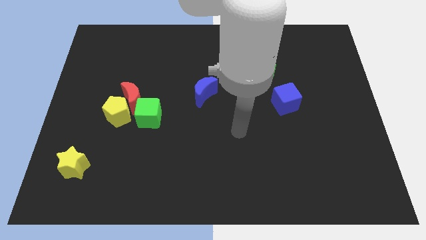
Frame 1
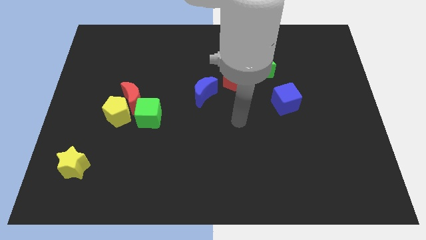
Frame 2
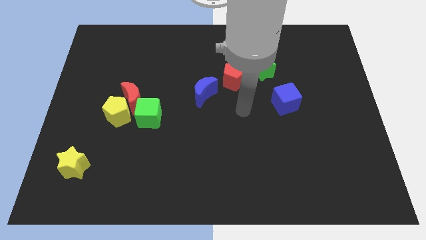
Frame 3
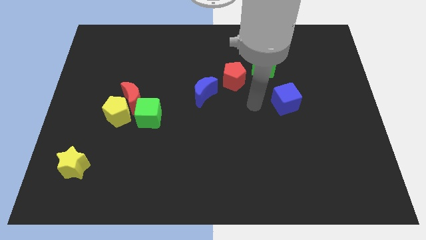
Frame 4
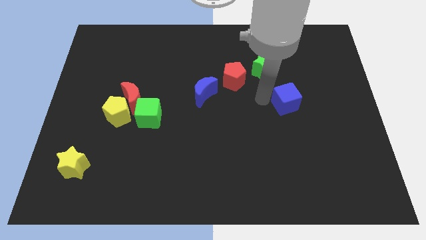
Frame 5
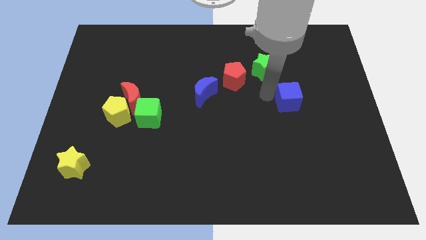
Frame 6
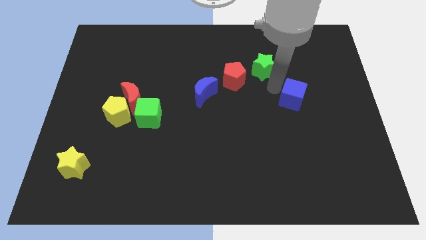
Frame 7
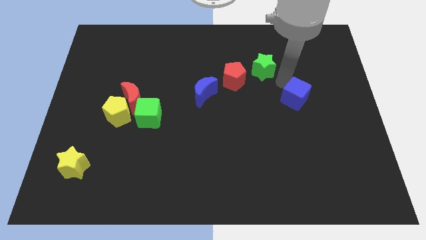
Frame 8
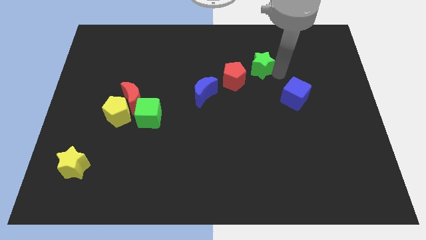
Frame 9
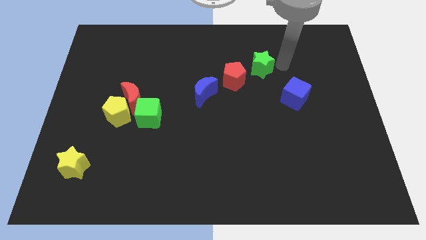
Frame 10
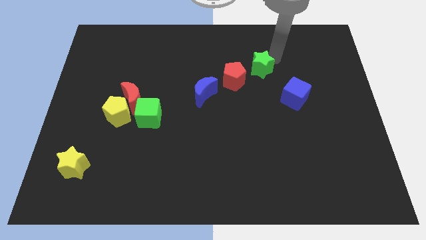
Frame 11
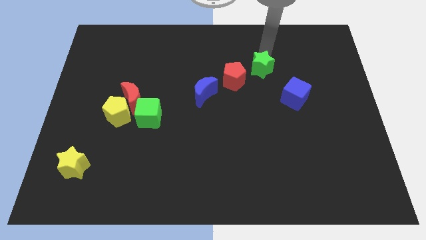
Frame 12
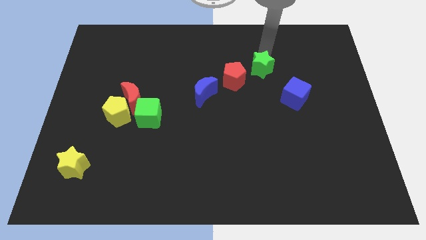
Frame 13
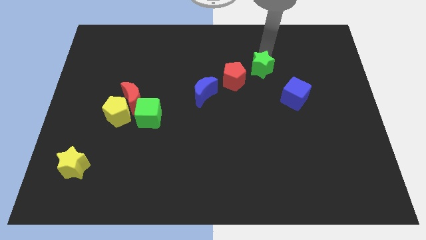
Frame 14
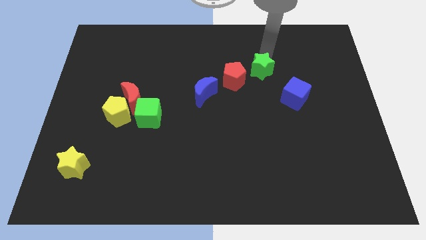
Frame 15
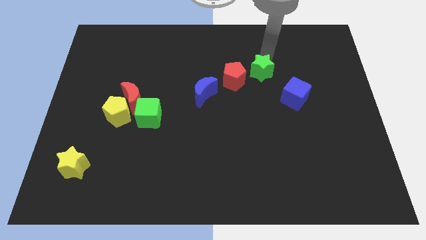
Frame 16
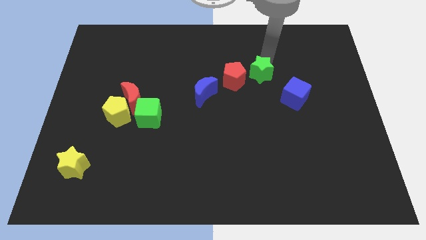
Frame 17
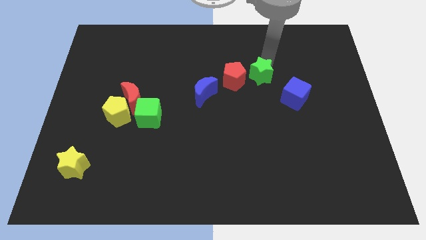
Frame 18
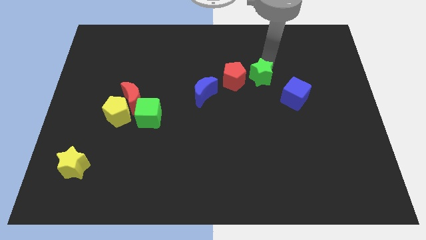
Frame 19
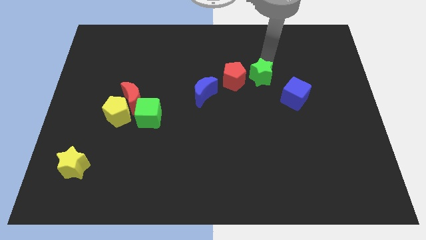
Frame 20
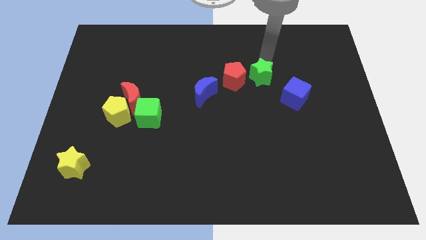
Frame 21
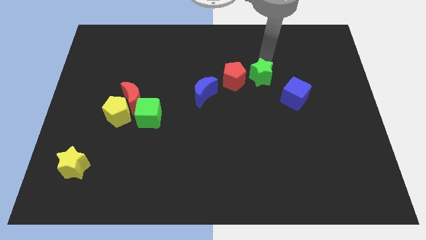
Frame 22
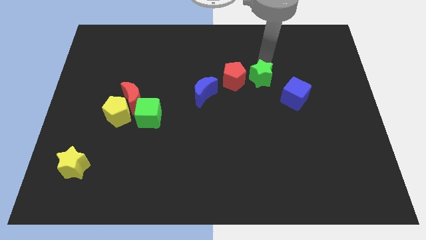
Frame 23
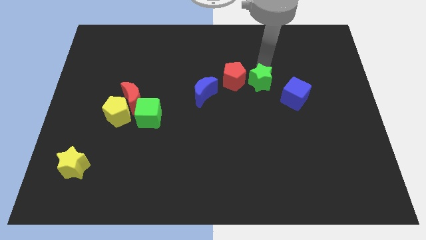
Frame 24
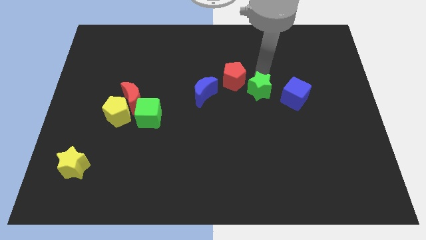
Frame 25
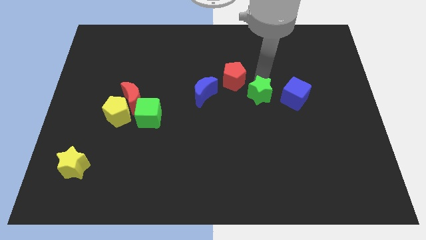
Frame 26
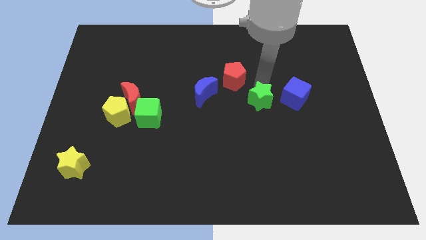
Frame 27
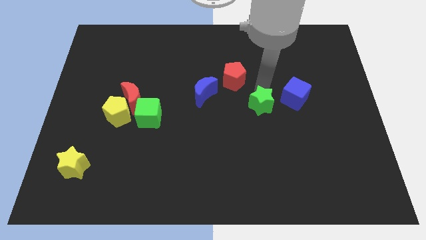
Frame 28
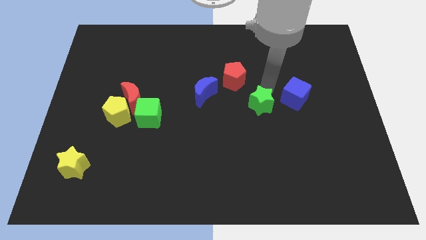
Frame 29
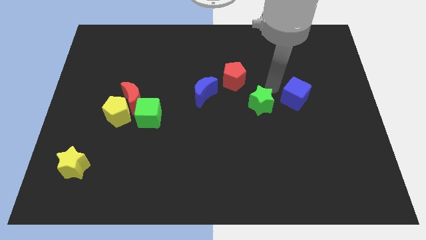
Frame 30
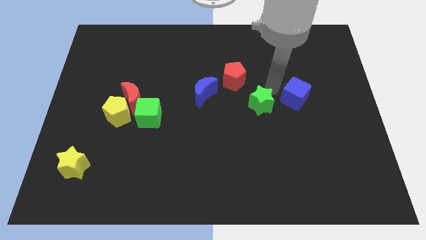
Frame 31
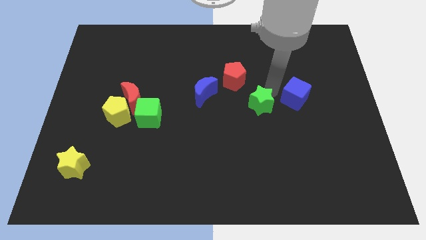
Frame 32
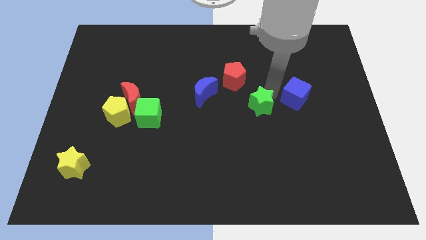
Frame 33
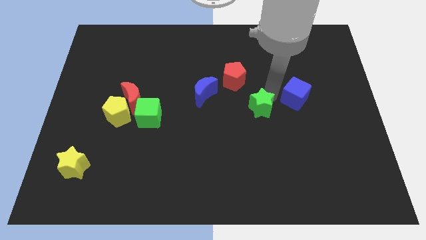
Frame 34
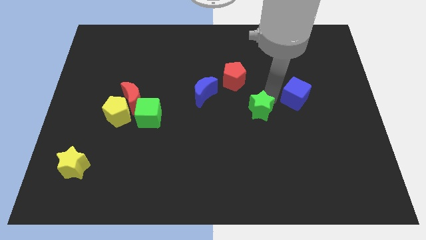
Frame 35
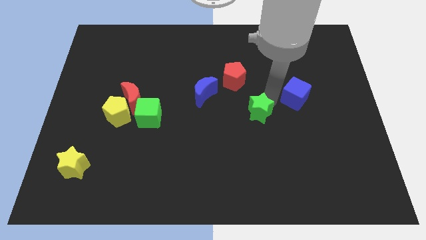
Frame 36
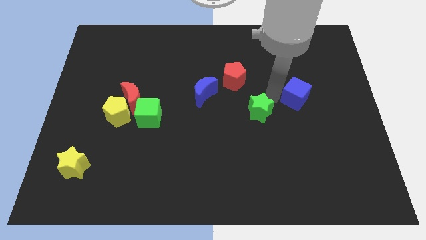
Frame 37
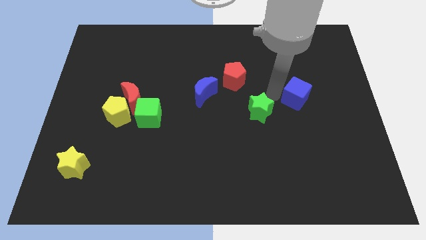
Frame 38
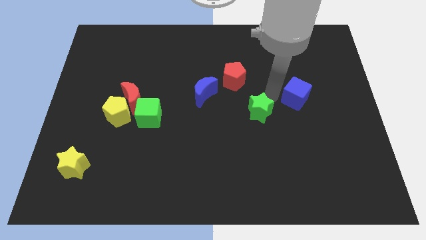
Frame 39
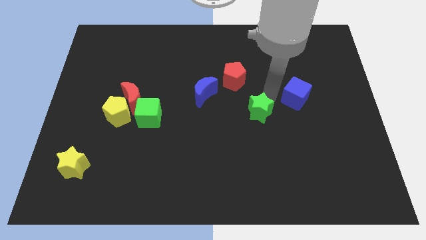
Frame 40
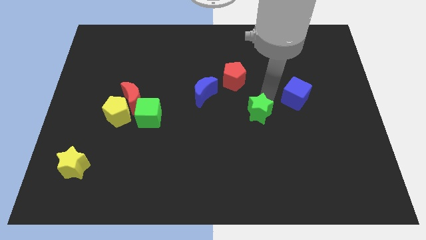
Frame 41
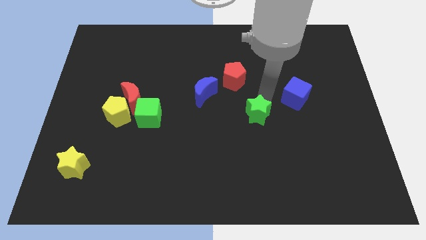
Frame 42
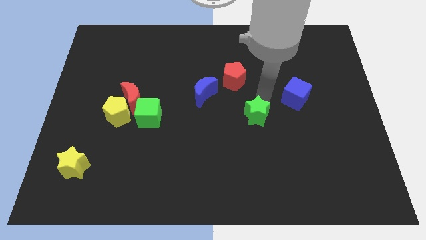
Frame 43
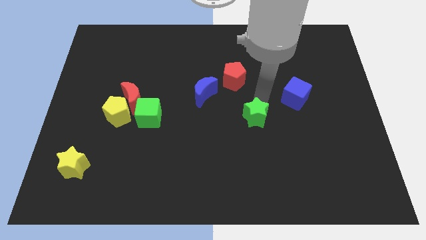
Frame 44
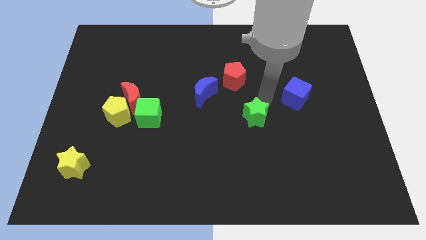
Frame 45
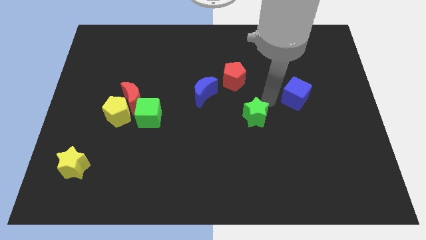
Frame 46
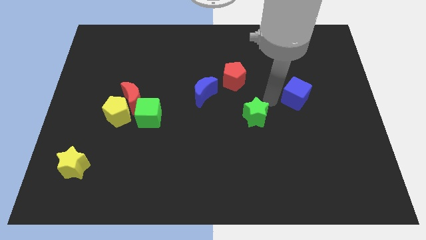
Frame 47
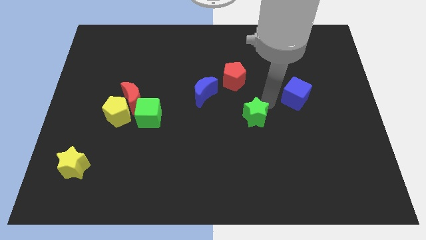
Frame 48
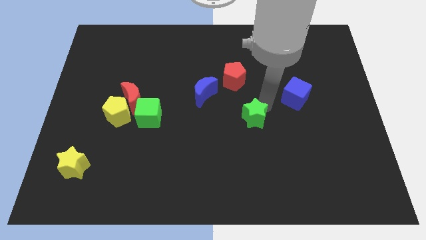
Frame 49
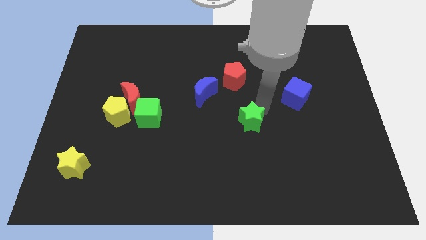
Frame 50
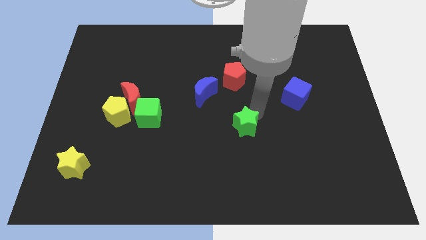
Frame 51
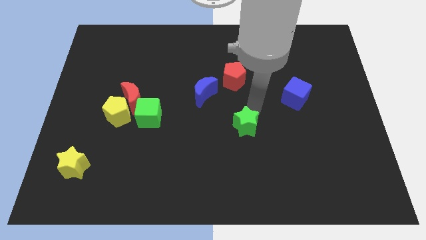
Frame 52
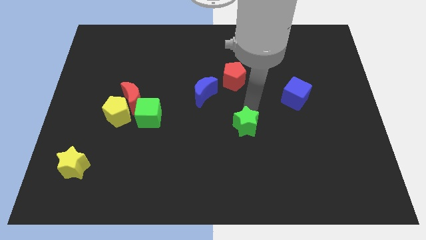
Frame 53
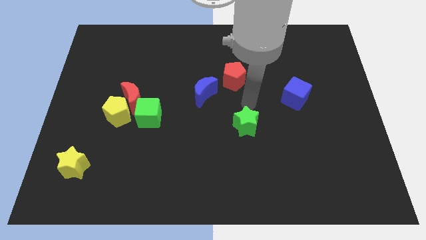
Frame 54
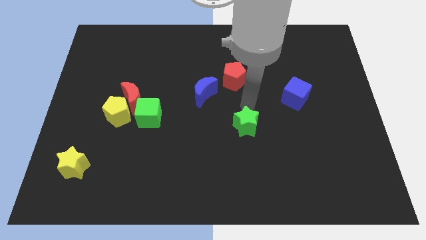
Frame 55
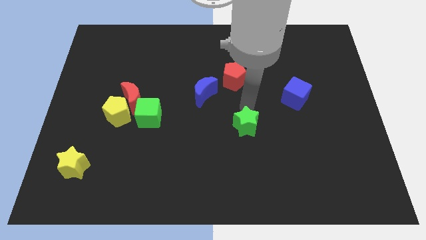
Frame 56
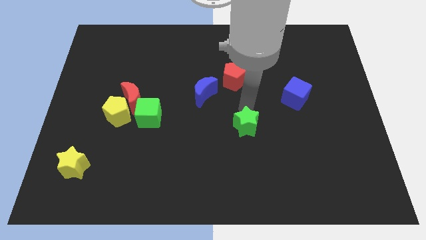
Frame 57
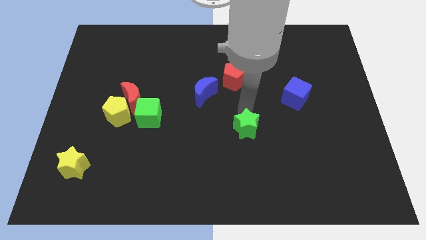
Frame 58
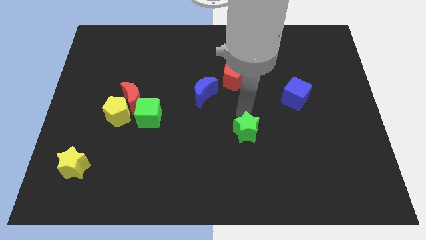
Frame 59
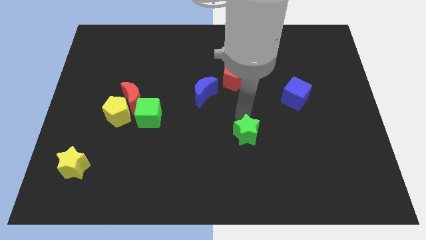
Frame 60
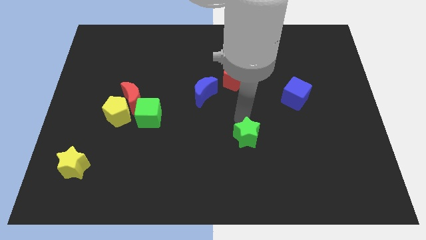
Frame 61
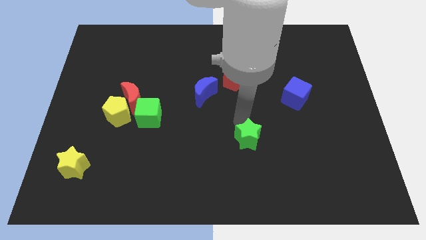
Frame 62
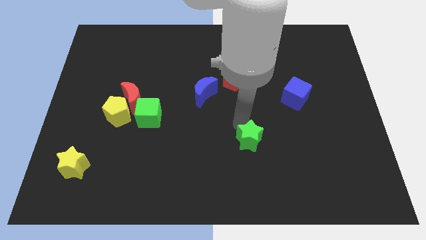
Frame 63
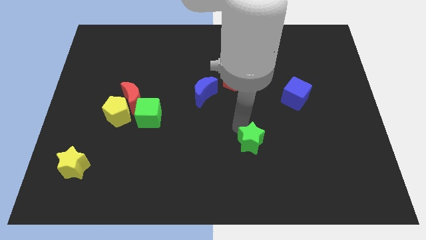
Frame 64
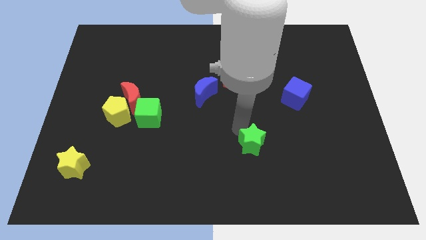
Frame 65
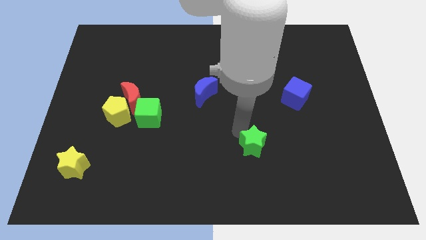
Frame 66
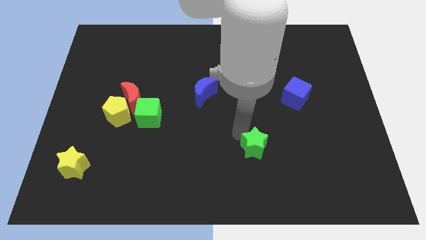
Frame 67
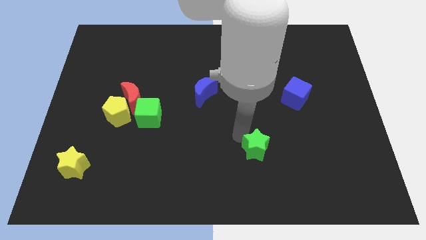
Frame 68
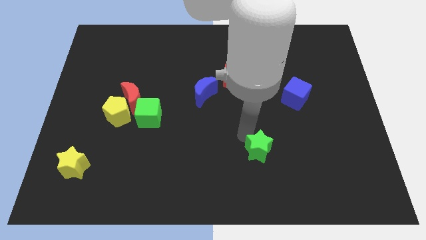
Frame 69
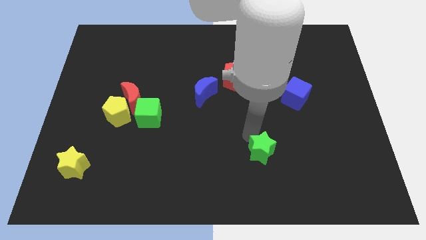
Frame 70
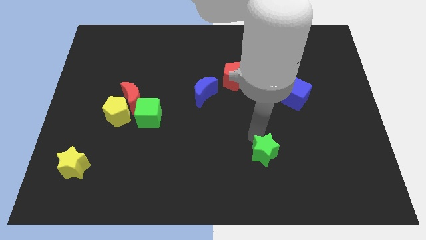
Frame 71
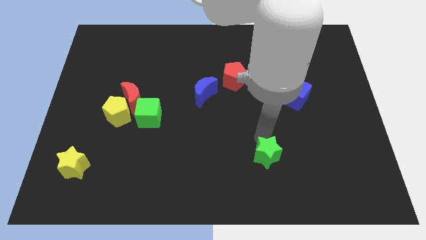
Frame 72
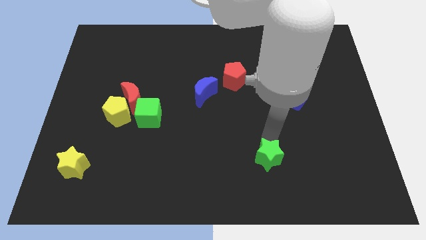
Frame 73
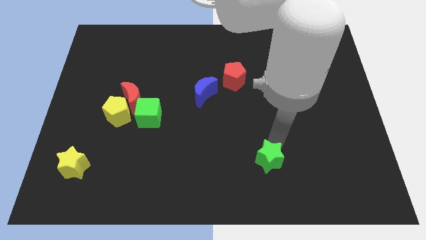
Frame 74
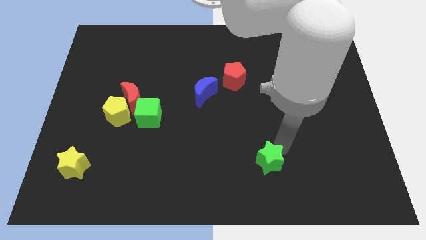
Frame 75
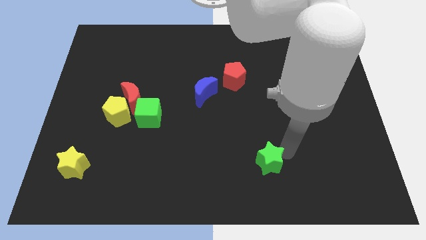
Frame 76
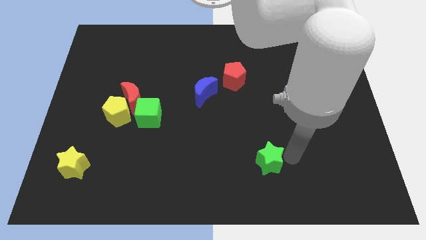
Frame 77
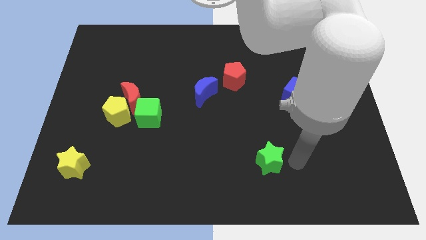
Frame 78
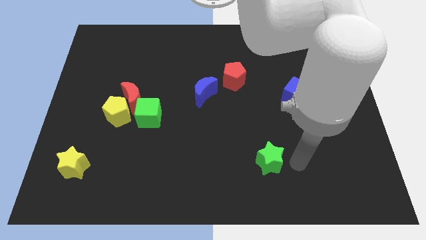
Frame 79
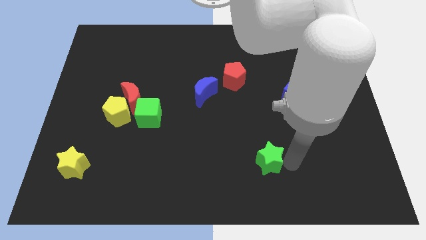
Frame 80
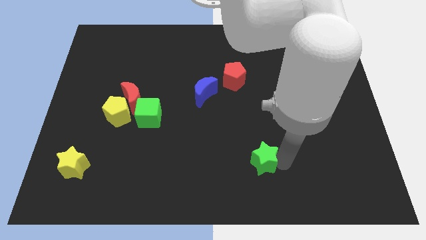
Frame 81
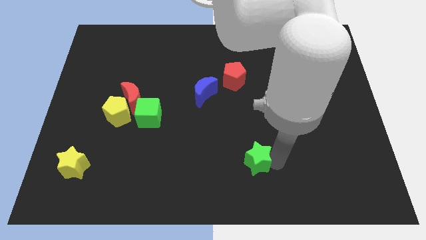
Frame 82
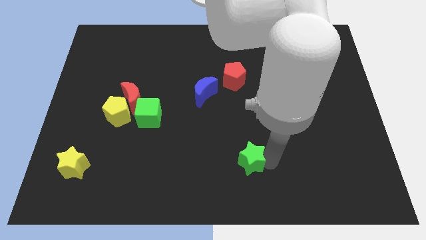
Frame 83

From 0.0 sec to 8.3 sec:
put the green star to the bottom side
